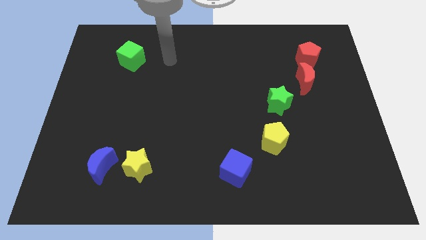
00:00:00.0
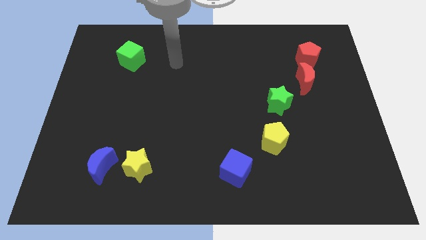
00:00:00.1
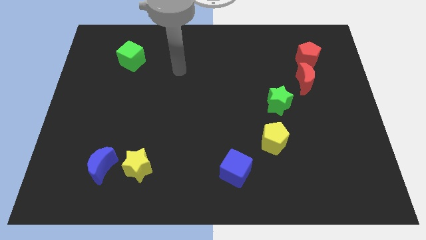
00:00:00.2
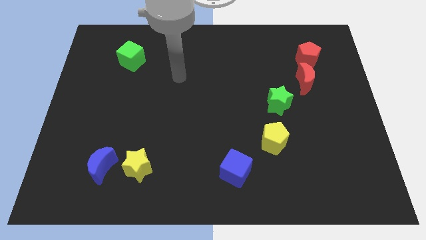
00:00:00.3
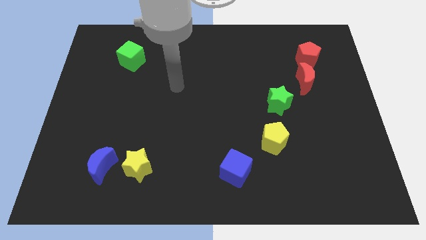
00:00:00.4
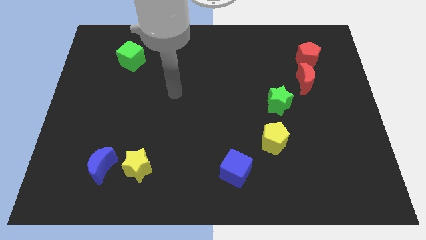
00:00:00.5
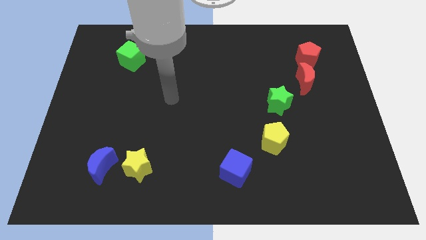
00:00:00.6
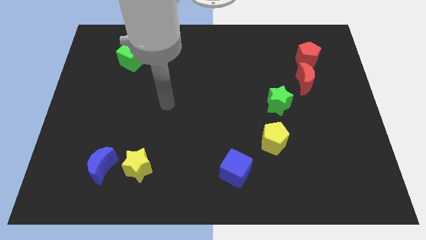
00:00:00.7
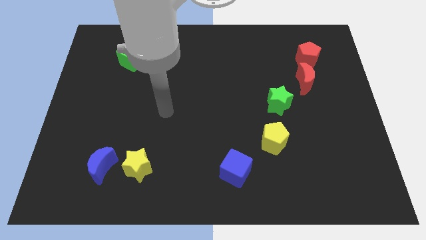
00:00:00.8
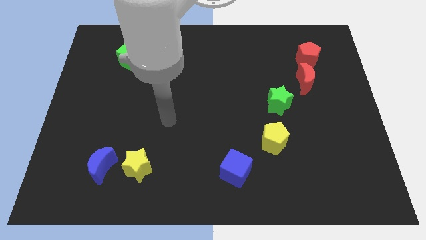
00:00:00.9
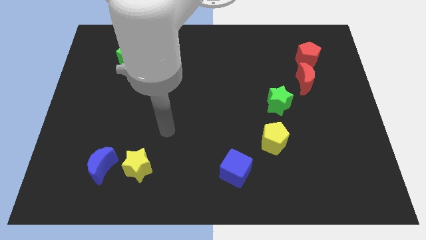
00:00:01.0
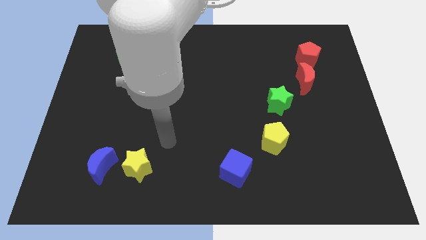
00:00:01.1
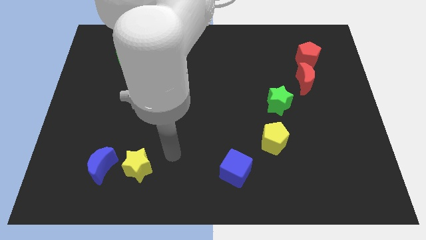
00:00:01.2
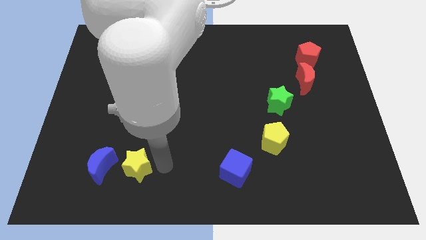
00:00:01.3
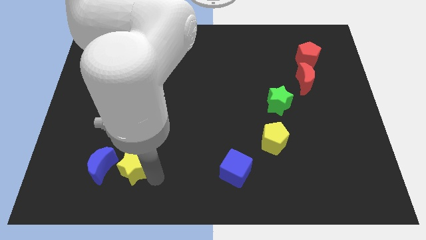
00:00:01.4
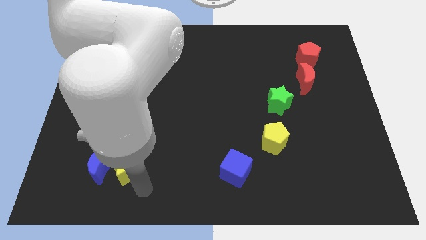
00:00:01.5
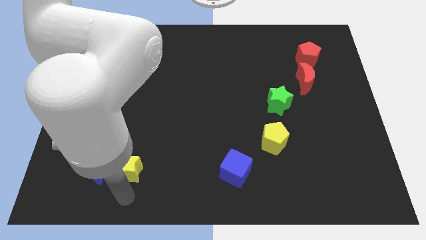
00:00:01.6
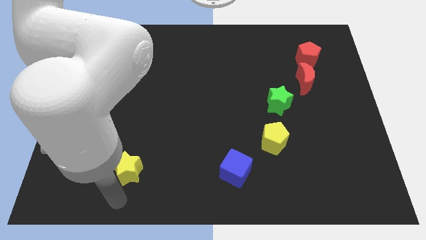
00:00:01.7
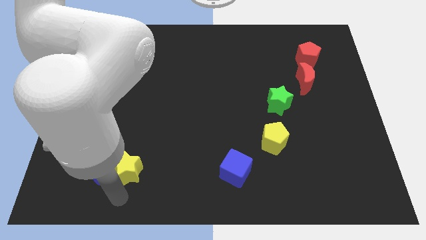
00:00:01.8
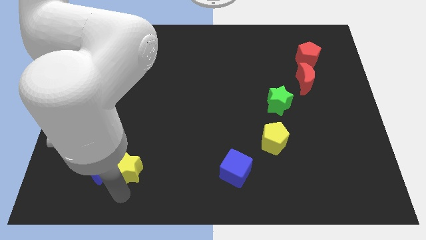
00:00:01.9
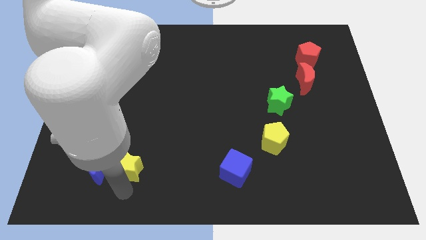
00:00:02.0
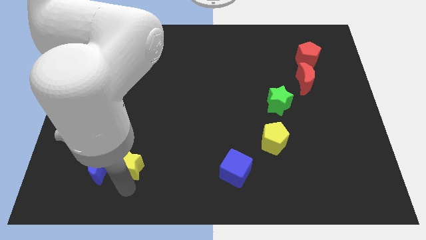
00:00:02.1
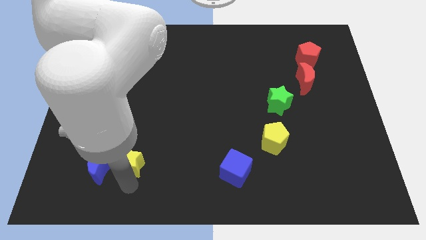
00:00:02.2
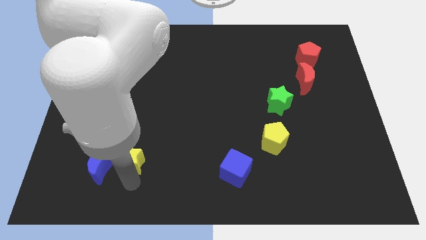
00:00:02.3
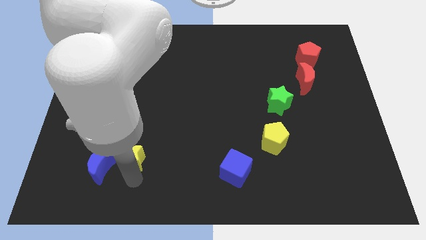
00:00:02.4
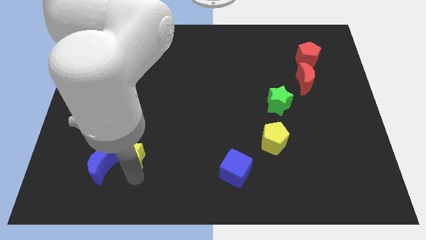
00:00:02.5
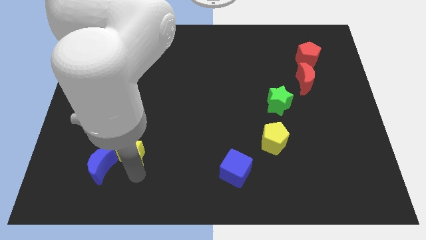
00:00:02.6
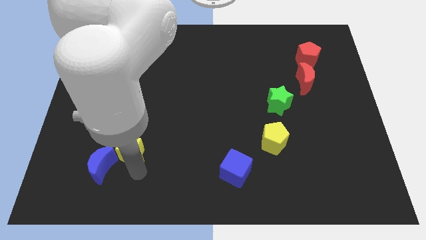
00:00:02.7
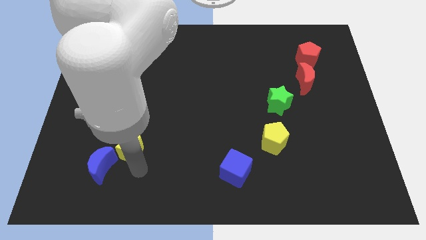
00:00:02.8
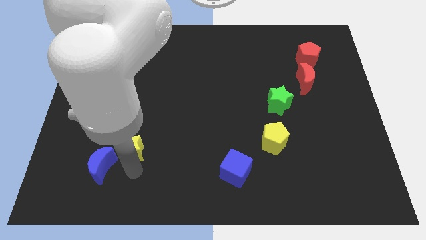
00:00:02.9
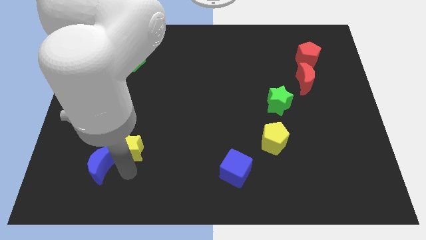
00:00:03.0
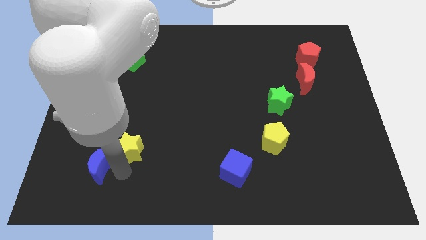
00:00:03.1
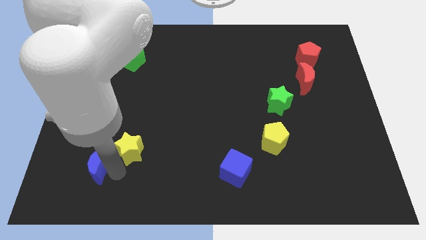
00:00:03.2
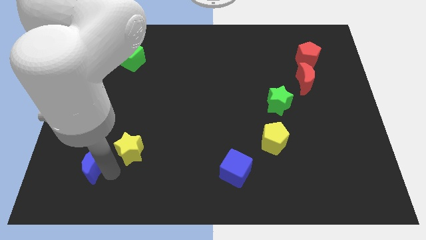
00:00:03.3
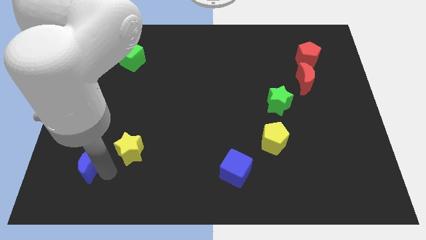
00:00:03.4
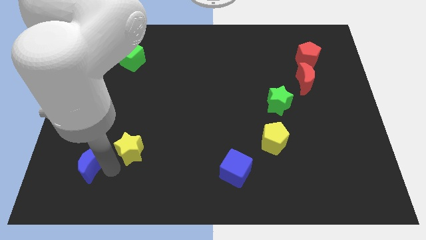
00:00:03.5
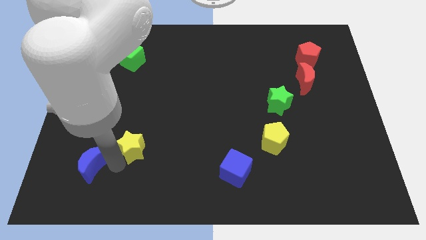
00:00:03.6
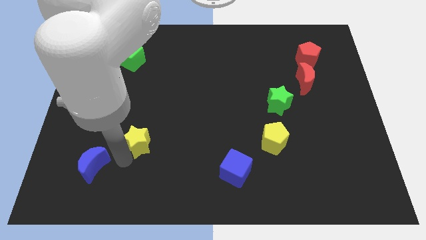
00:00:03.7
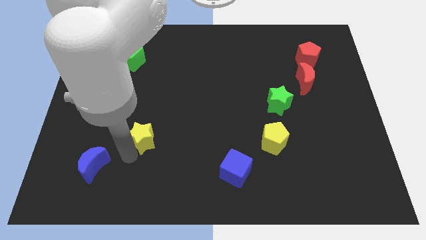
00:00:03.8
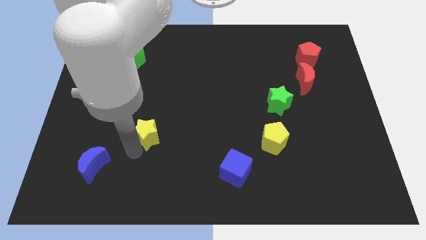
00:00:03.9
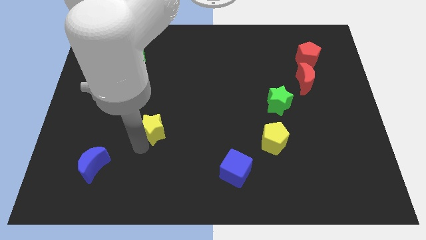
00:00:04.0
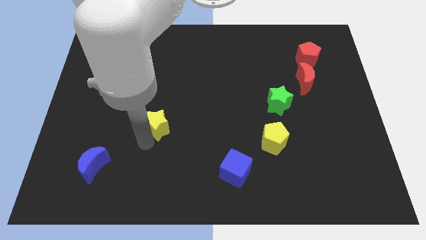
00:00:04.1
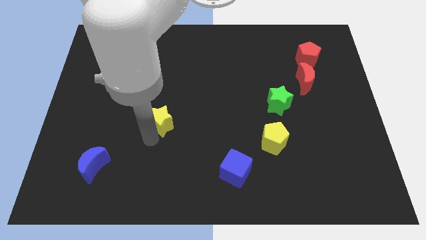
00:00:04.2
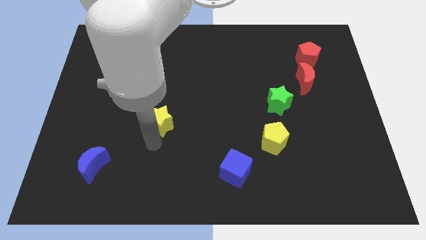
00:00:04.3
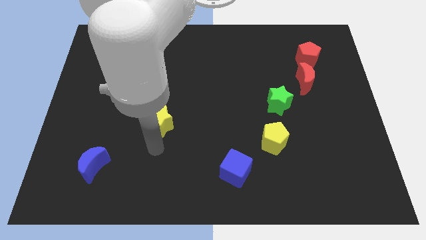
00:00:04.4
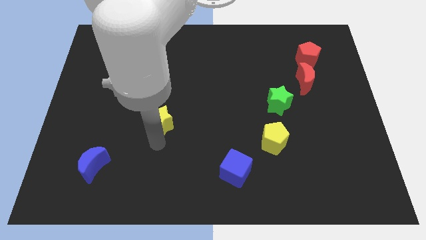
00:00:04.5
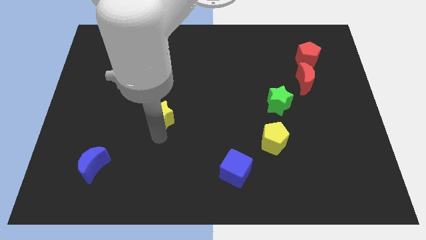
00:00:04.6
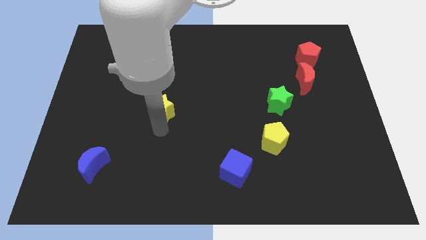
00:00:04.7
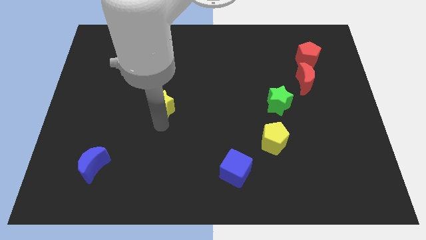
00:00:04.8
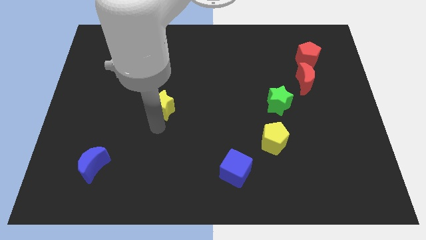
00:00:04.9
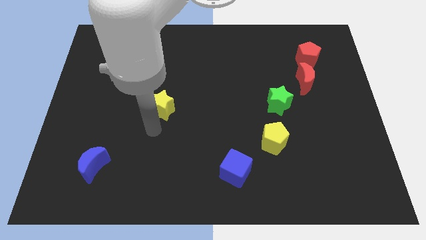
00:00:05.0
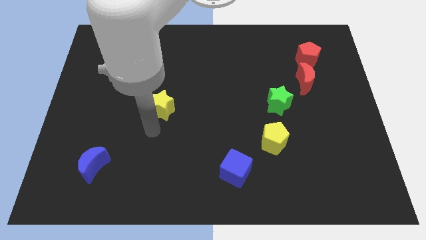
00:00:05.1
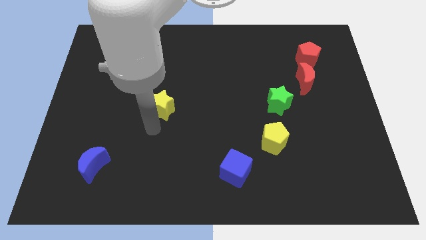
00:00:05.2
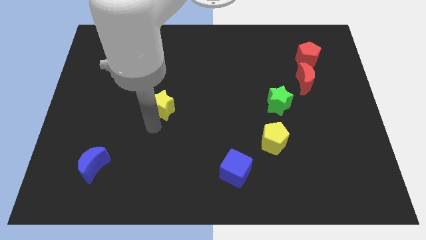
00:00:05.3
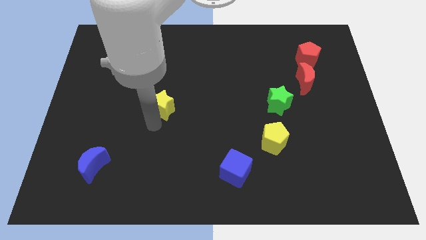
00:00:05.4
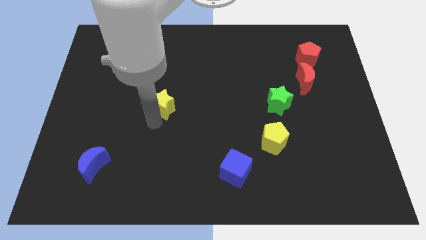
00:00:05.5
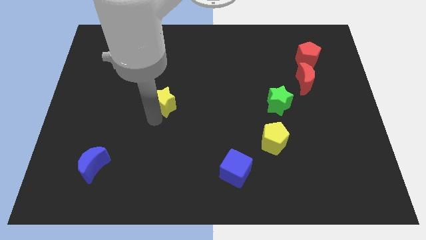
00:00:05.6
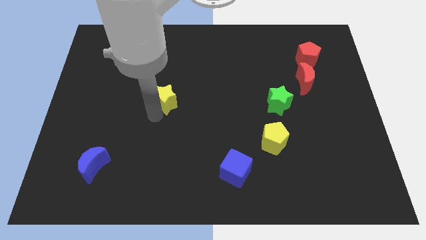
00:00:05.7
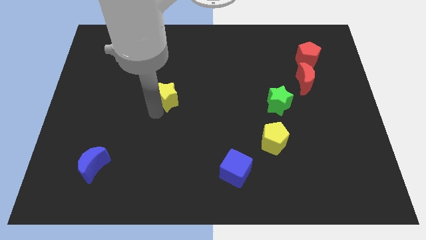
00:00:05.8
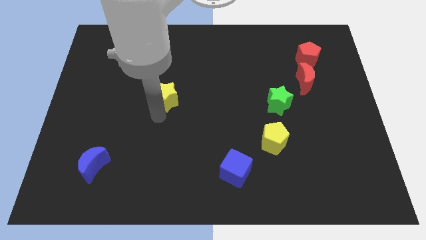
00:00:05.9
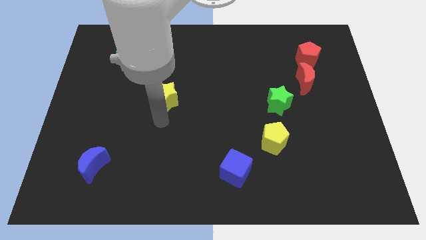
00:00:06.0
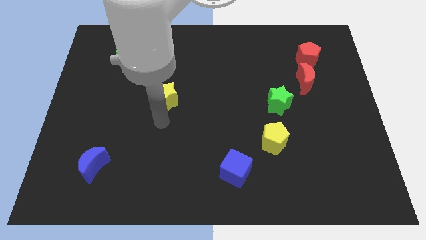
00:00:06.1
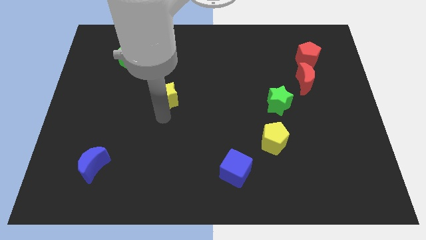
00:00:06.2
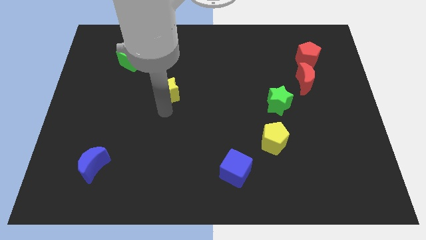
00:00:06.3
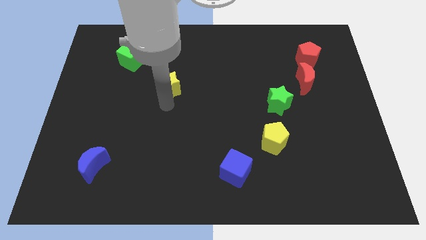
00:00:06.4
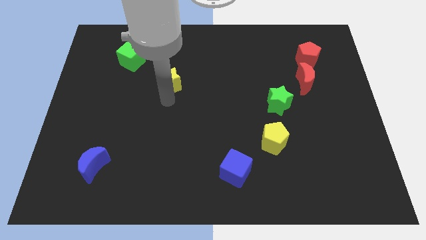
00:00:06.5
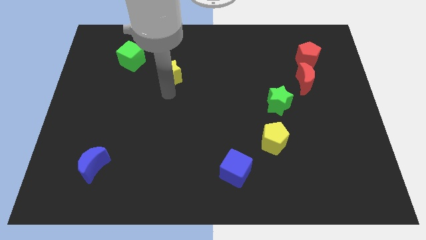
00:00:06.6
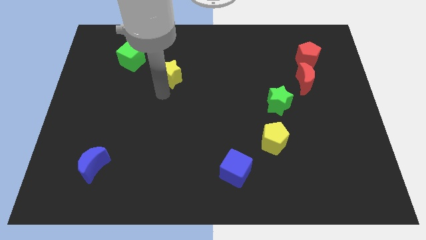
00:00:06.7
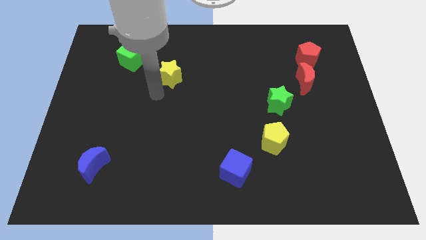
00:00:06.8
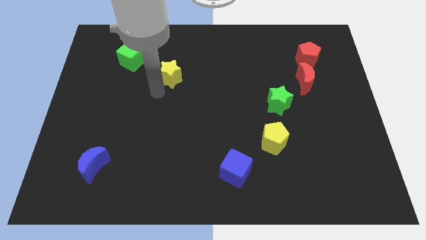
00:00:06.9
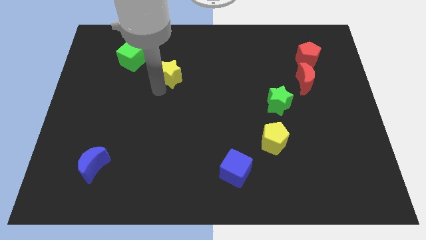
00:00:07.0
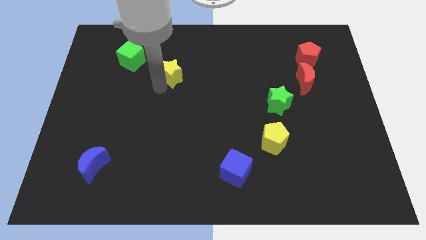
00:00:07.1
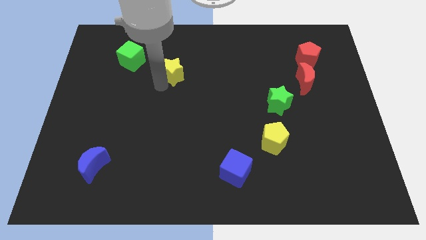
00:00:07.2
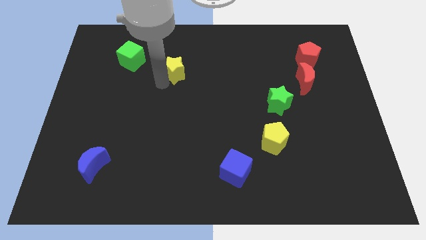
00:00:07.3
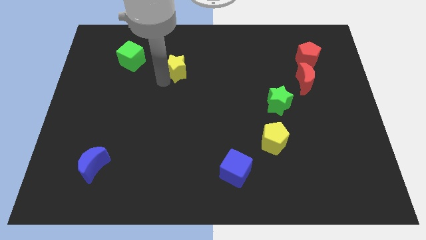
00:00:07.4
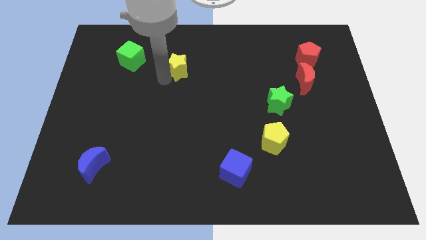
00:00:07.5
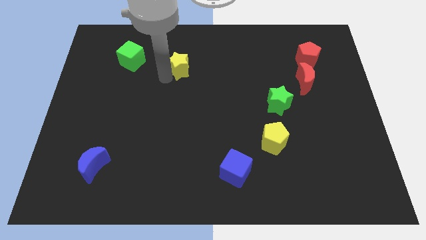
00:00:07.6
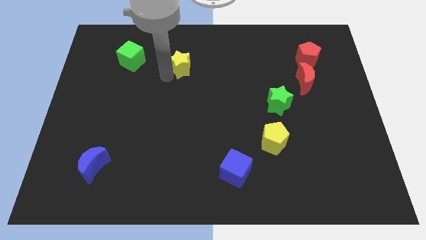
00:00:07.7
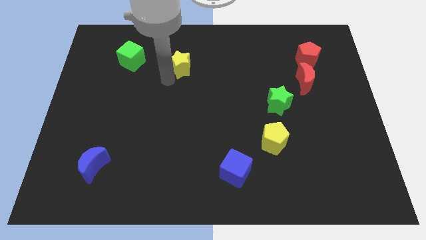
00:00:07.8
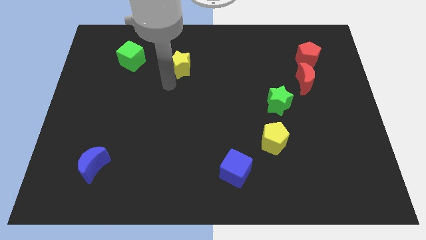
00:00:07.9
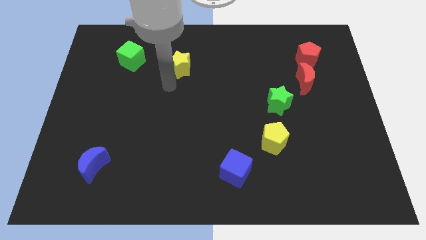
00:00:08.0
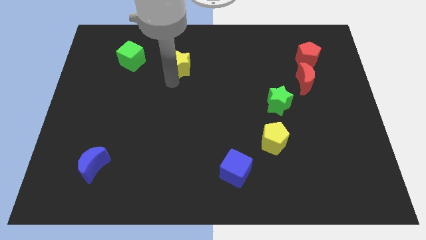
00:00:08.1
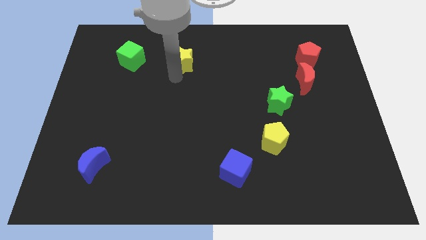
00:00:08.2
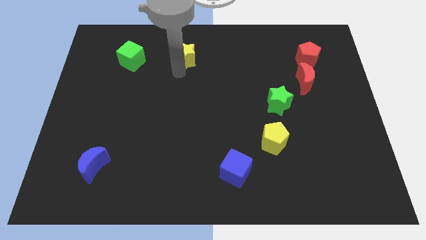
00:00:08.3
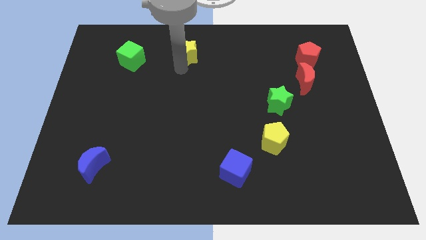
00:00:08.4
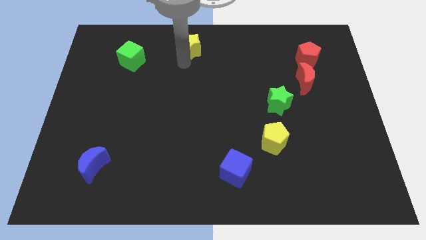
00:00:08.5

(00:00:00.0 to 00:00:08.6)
push the yellow star to the top side
